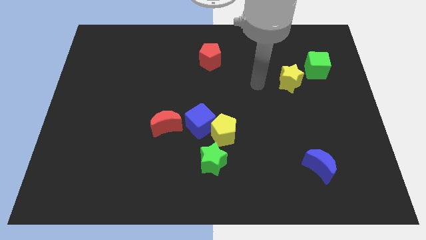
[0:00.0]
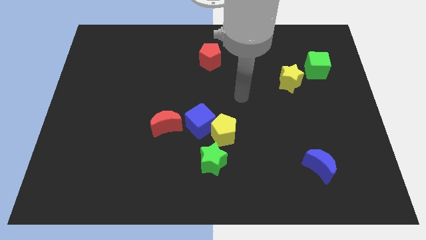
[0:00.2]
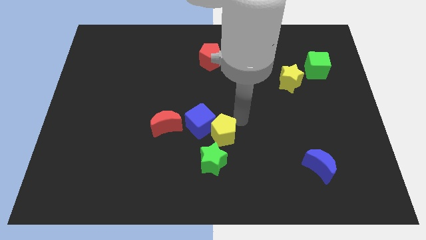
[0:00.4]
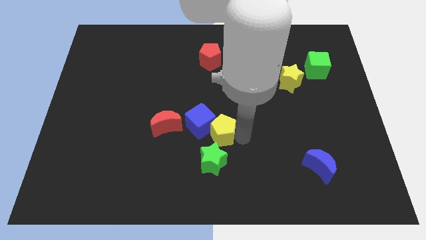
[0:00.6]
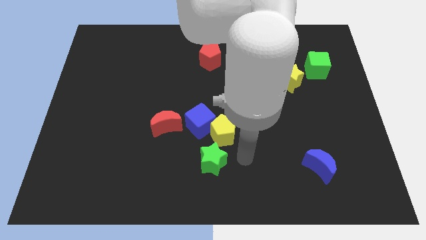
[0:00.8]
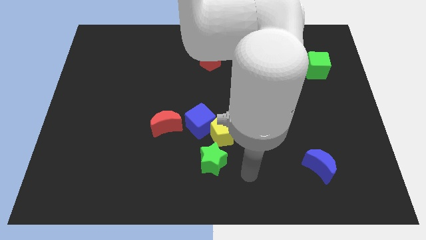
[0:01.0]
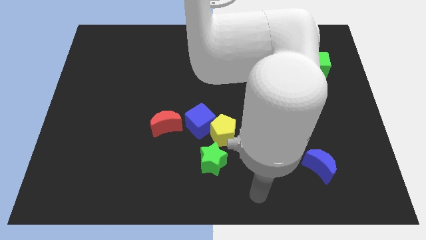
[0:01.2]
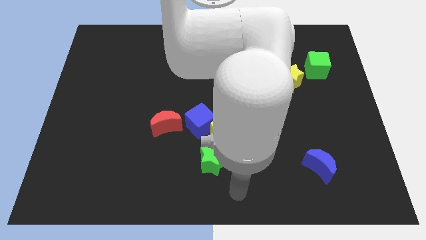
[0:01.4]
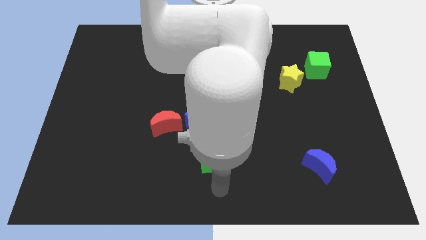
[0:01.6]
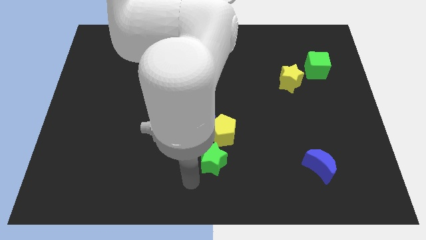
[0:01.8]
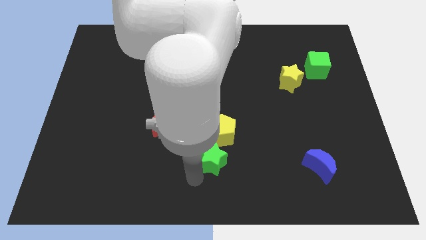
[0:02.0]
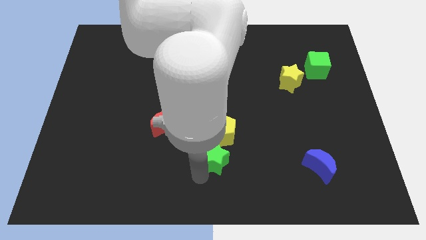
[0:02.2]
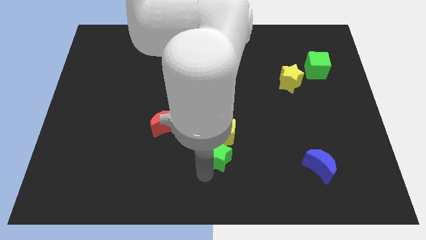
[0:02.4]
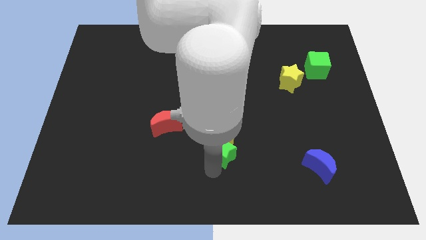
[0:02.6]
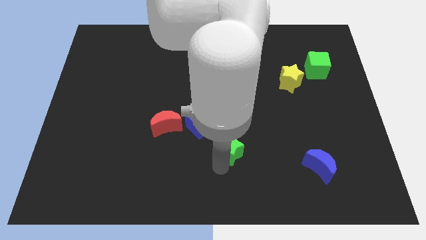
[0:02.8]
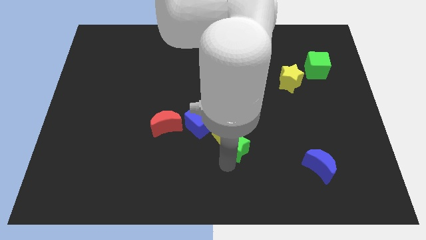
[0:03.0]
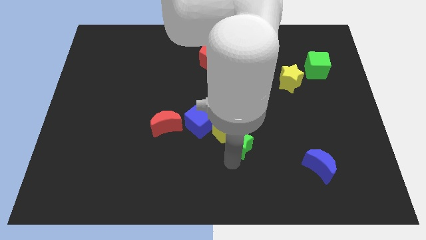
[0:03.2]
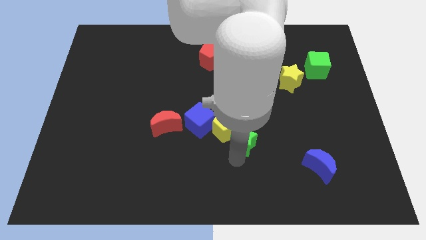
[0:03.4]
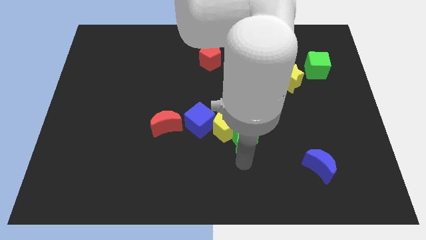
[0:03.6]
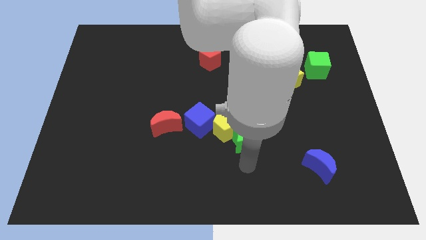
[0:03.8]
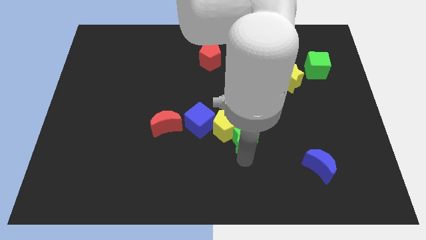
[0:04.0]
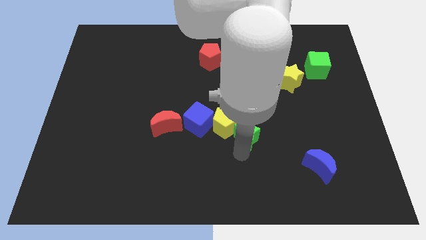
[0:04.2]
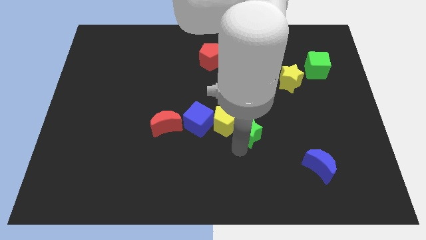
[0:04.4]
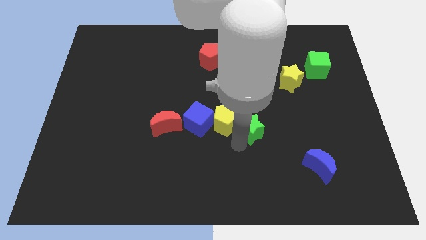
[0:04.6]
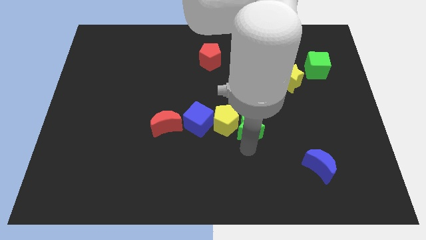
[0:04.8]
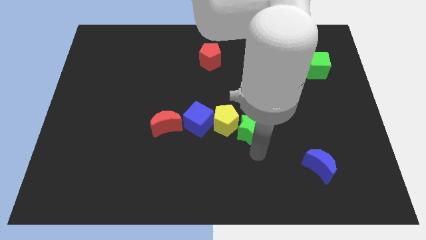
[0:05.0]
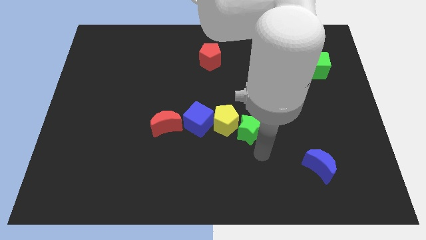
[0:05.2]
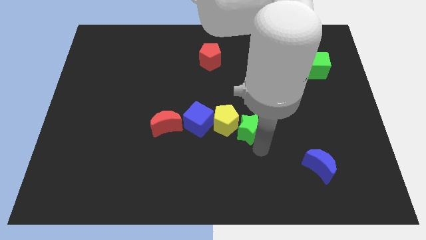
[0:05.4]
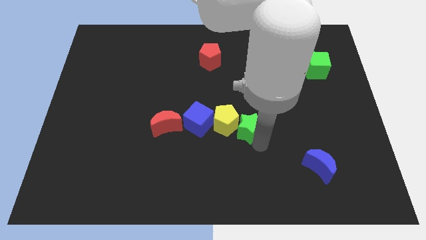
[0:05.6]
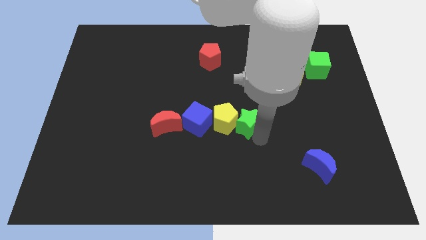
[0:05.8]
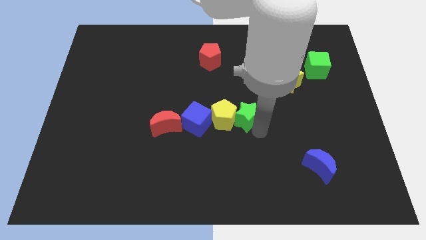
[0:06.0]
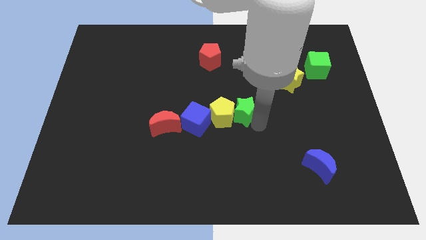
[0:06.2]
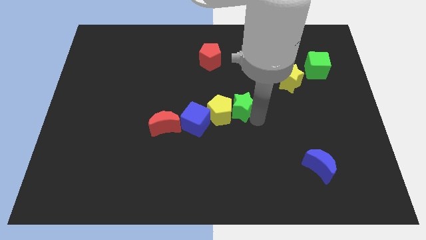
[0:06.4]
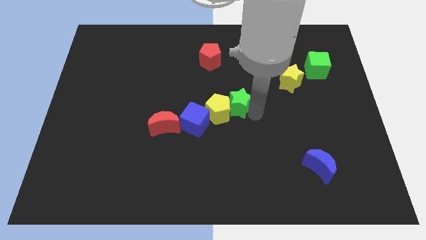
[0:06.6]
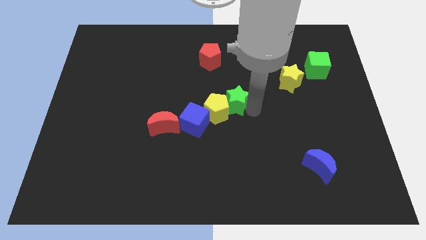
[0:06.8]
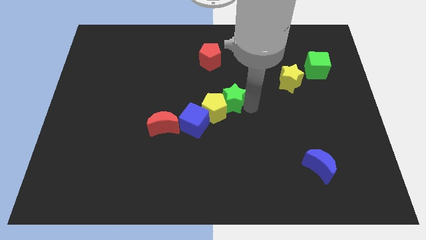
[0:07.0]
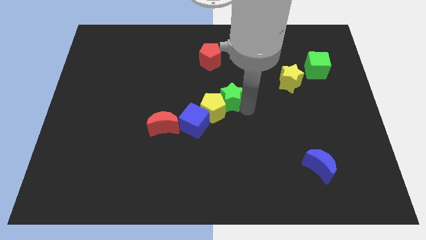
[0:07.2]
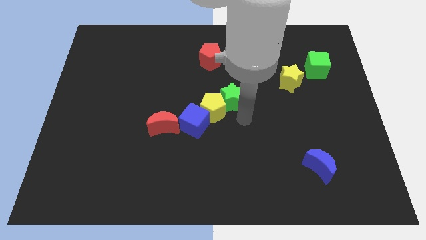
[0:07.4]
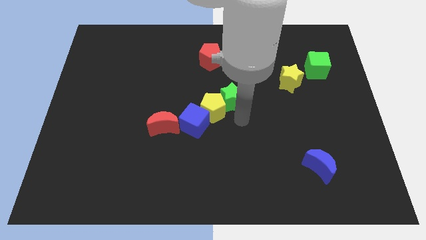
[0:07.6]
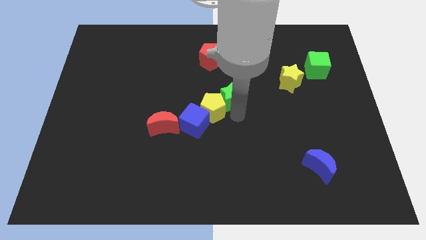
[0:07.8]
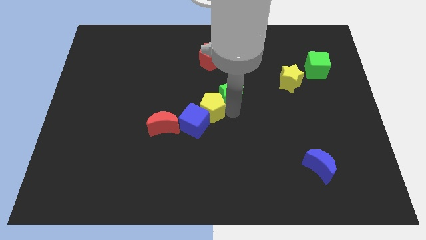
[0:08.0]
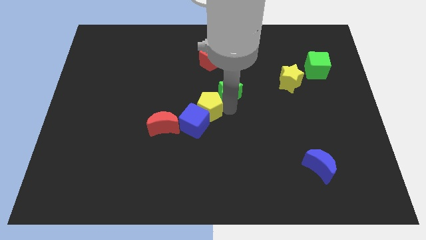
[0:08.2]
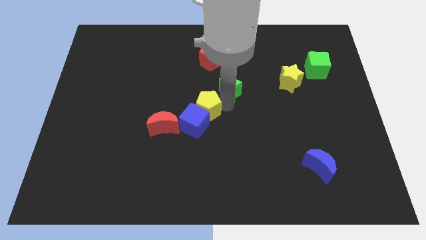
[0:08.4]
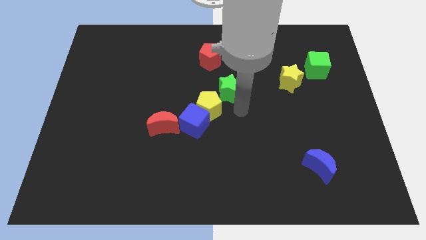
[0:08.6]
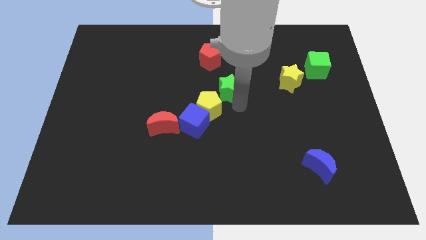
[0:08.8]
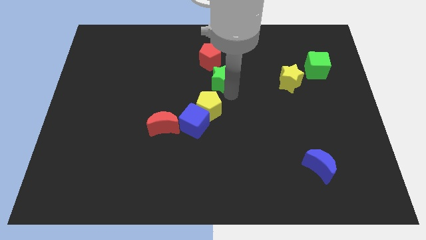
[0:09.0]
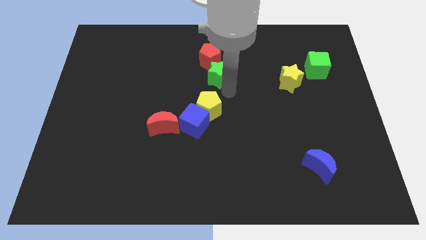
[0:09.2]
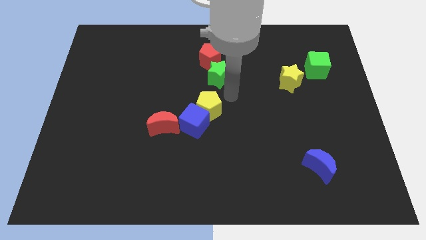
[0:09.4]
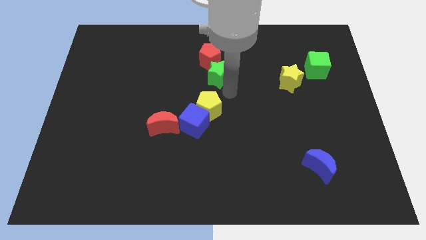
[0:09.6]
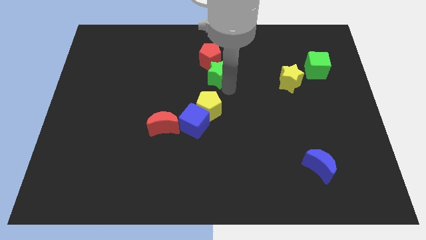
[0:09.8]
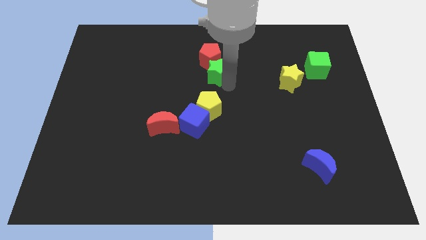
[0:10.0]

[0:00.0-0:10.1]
move the green star towards the red pentagon

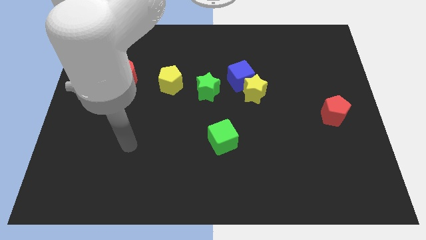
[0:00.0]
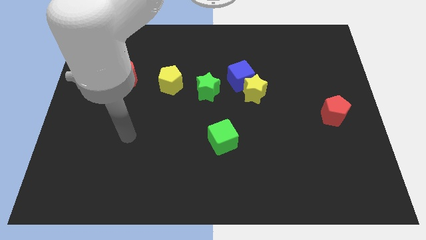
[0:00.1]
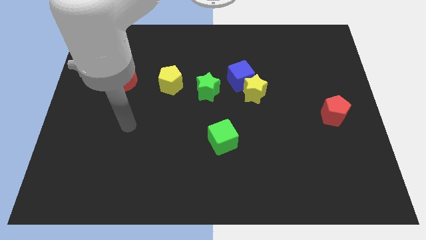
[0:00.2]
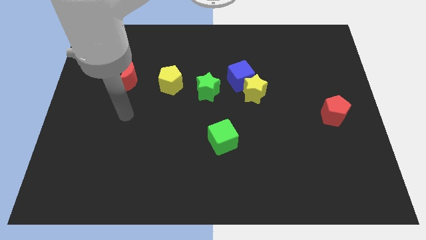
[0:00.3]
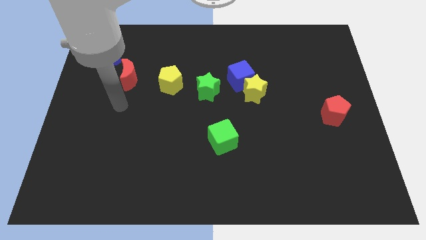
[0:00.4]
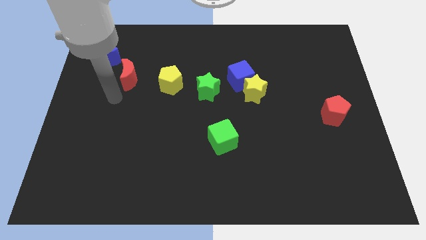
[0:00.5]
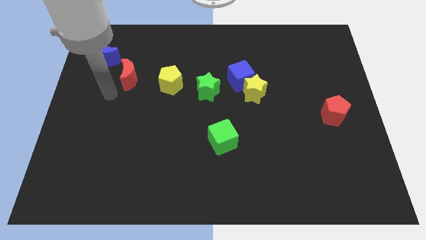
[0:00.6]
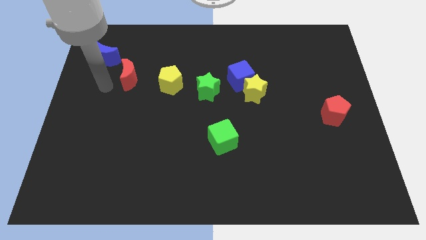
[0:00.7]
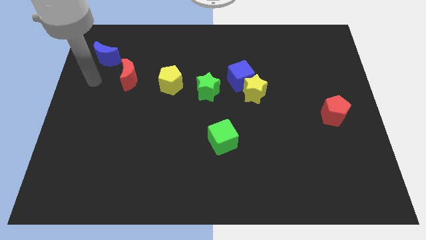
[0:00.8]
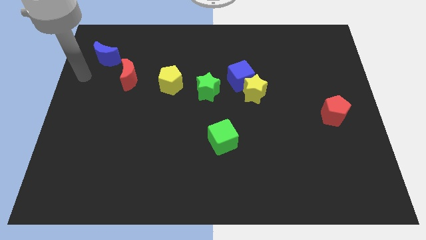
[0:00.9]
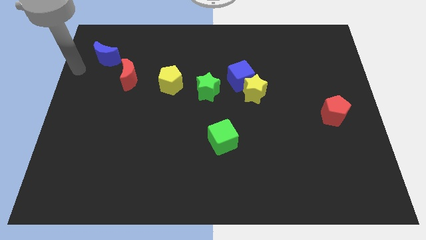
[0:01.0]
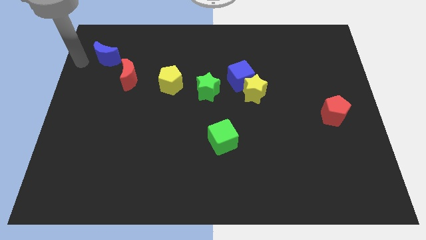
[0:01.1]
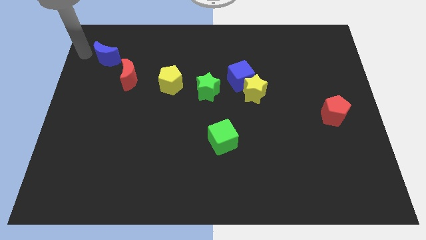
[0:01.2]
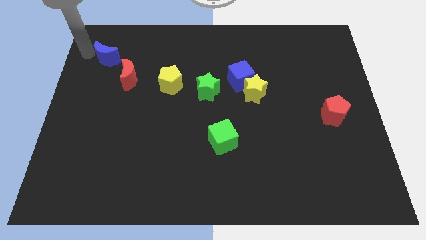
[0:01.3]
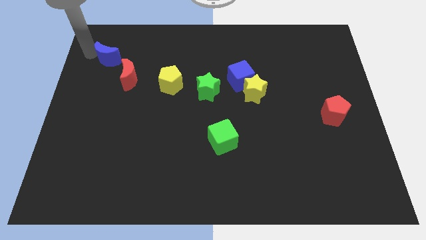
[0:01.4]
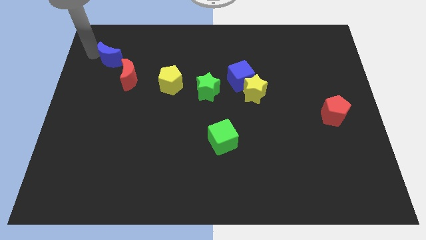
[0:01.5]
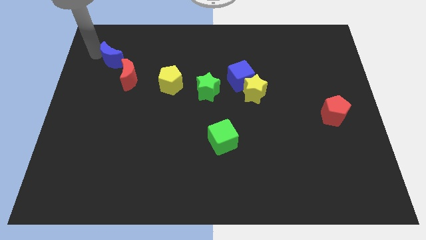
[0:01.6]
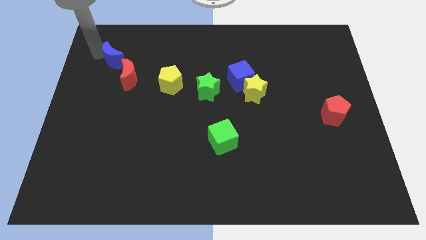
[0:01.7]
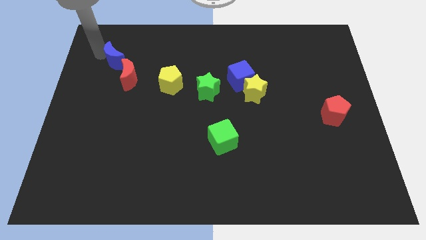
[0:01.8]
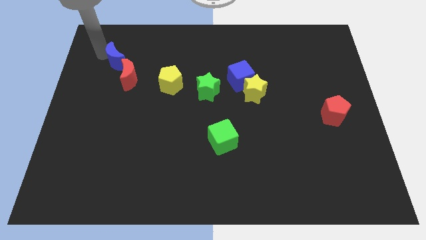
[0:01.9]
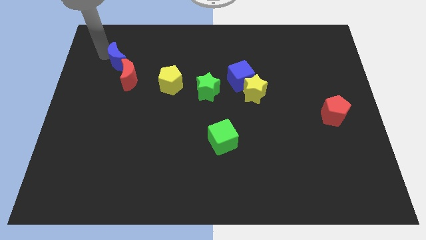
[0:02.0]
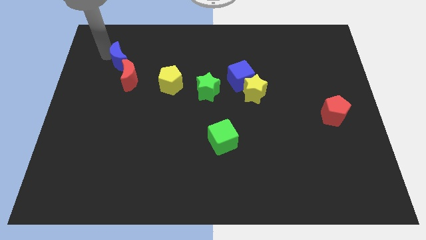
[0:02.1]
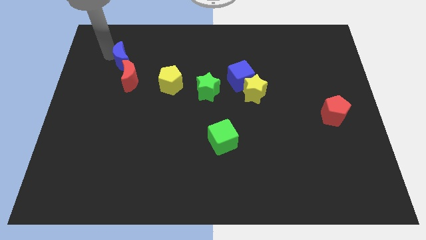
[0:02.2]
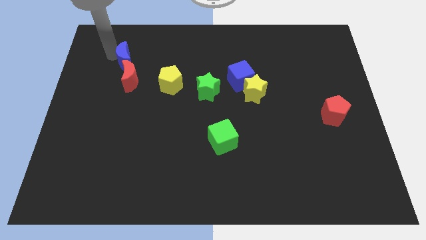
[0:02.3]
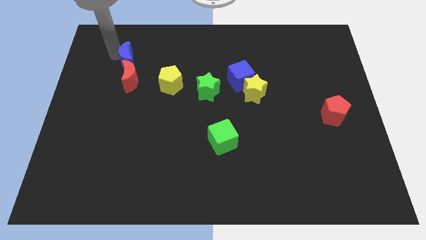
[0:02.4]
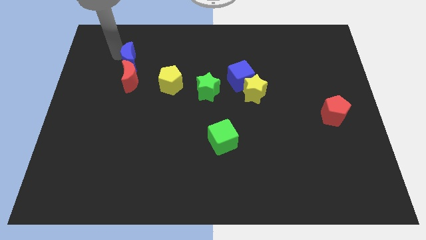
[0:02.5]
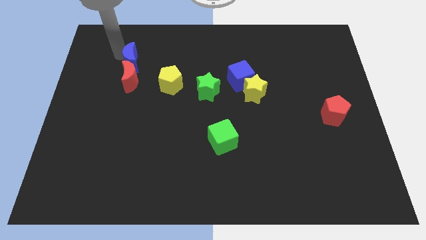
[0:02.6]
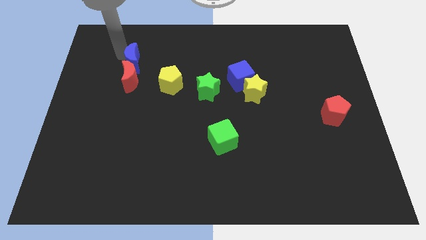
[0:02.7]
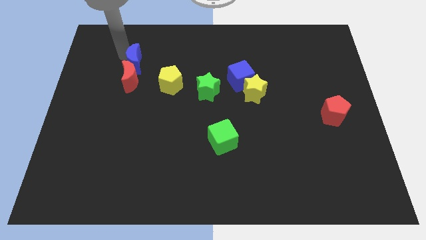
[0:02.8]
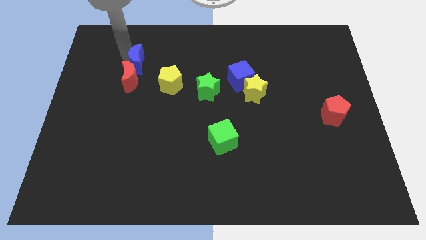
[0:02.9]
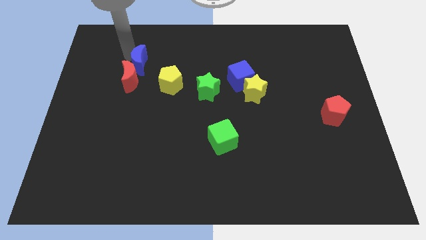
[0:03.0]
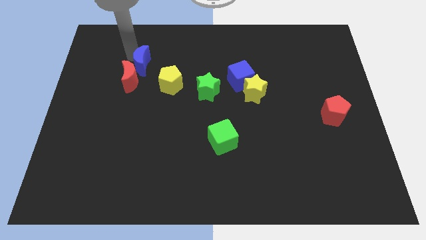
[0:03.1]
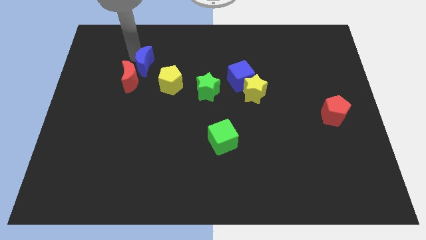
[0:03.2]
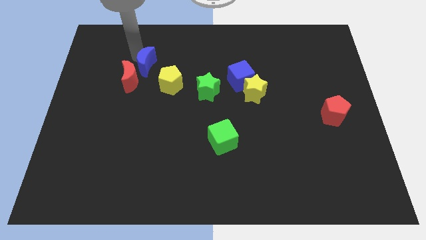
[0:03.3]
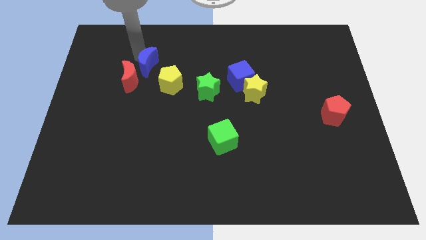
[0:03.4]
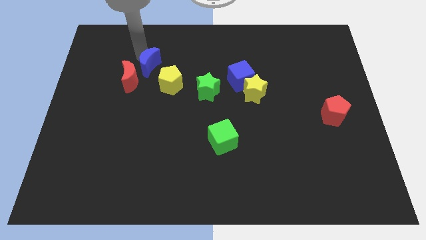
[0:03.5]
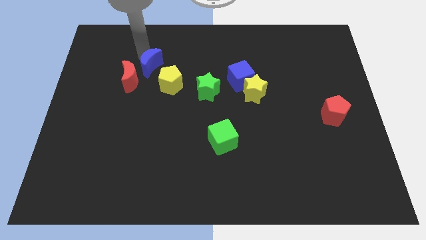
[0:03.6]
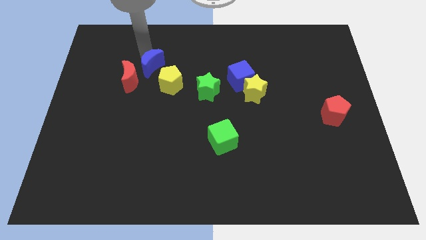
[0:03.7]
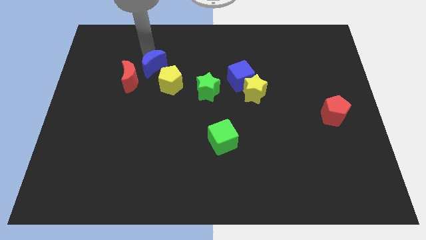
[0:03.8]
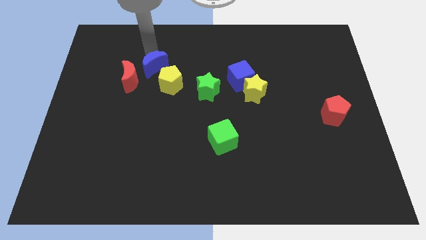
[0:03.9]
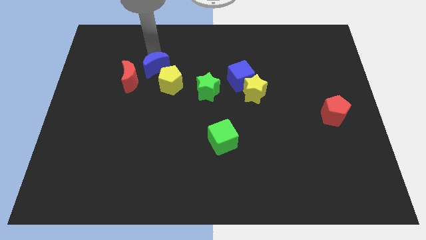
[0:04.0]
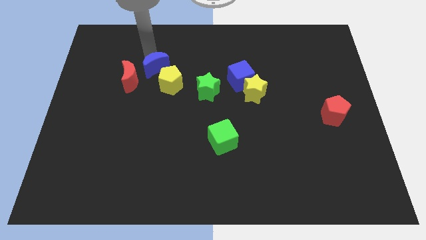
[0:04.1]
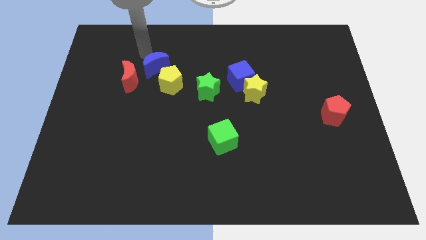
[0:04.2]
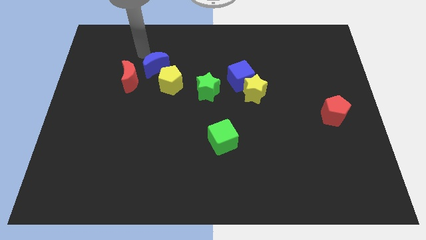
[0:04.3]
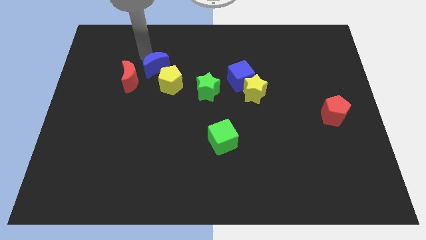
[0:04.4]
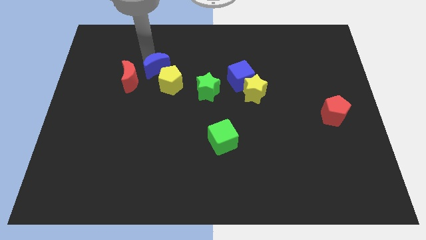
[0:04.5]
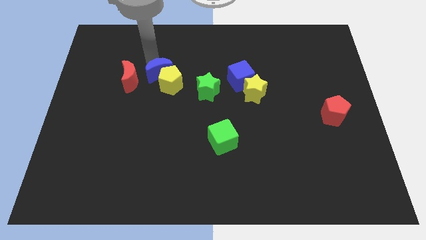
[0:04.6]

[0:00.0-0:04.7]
push the blue moon close to the yellow pentagon
